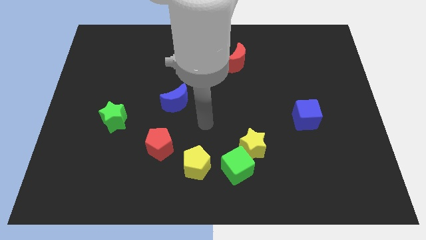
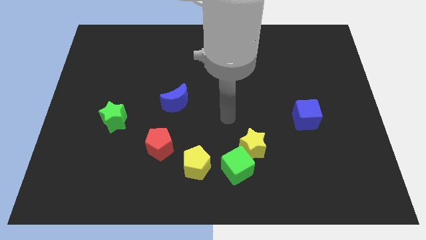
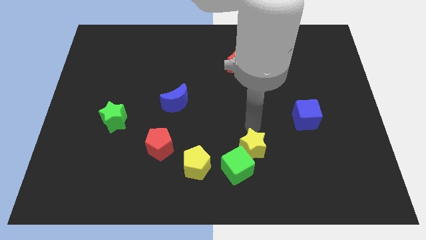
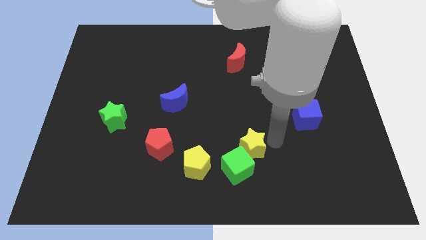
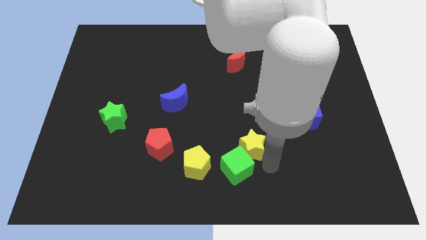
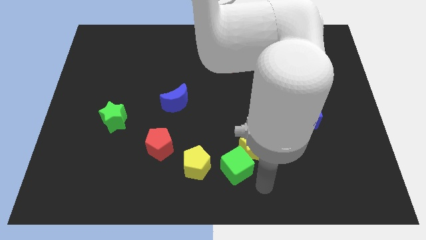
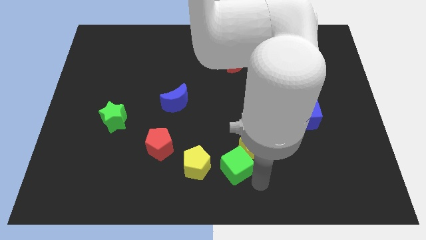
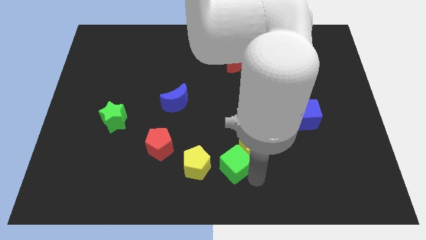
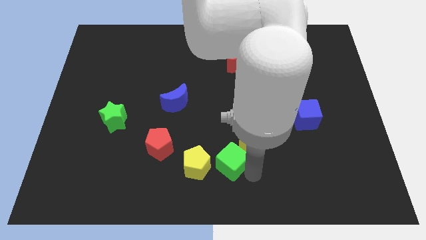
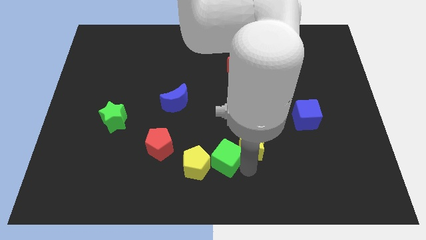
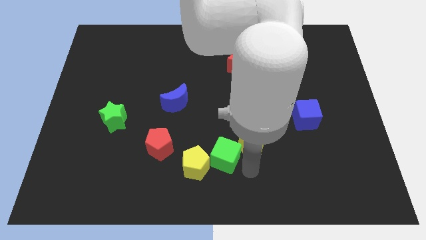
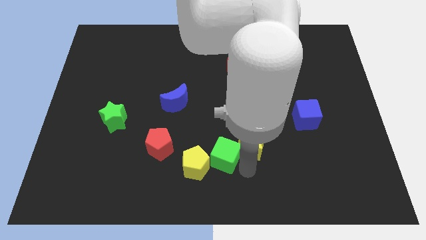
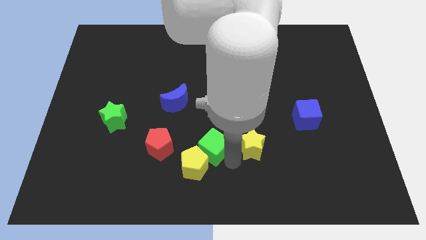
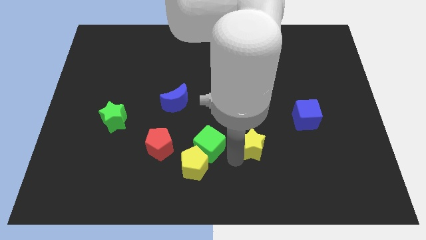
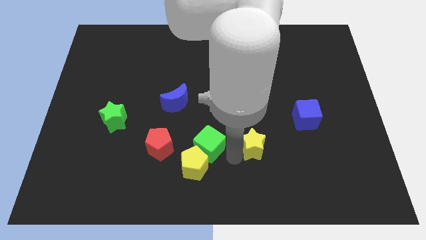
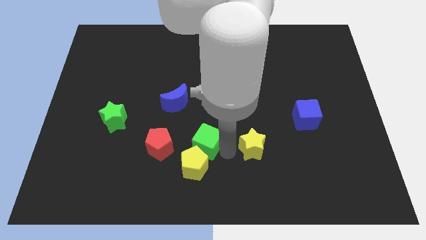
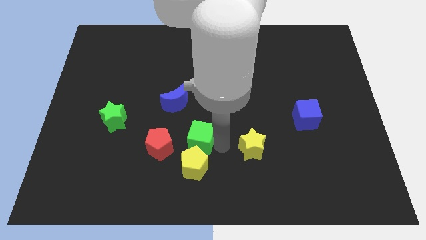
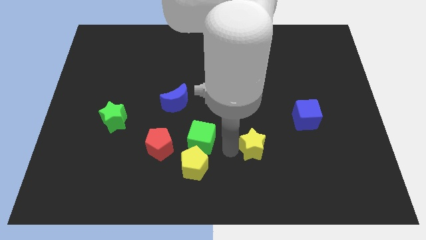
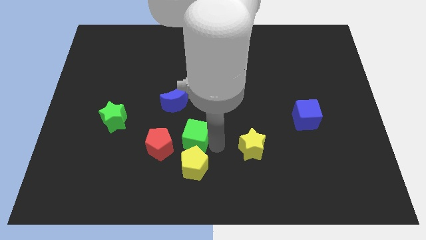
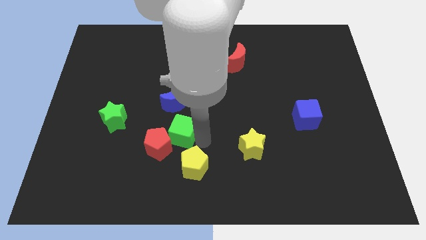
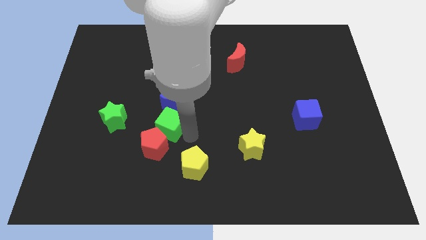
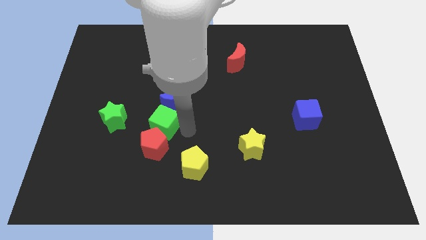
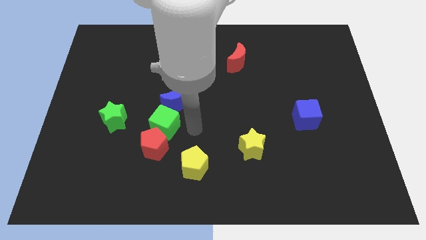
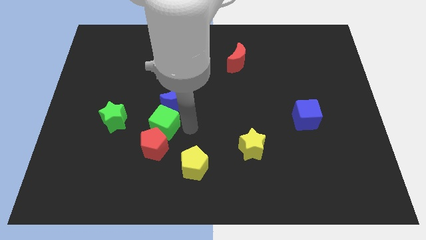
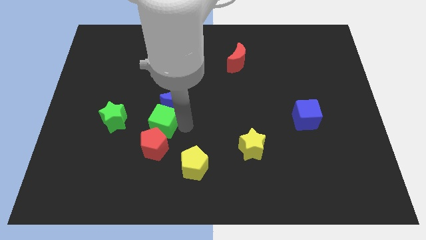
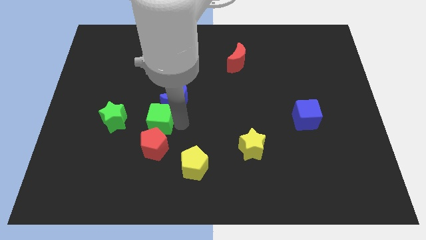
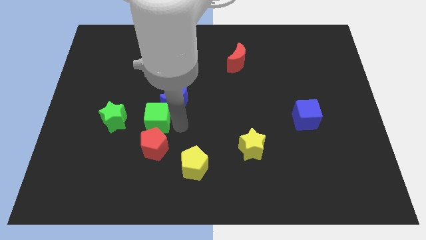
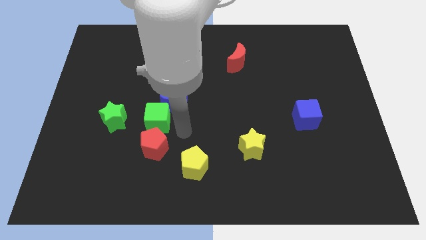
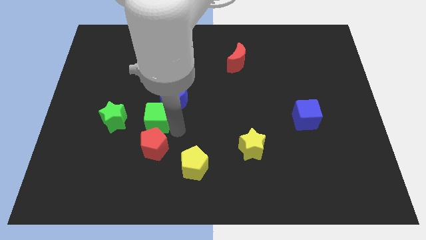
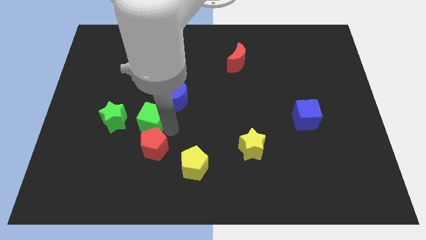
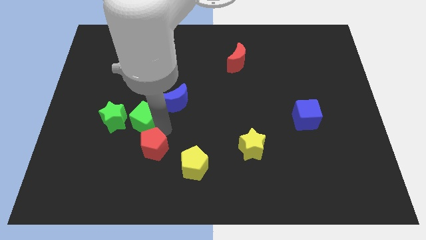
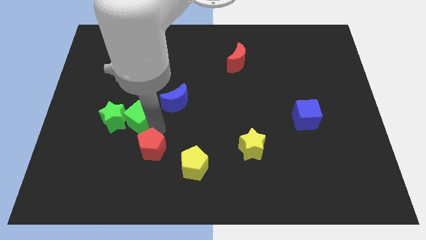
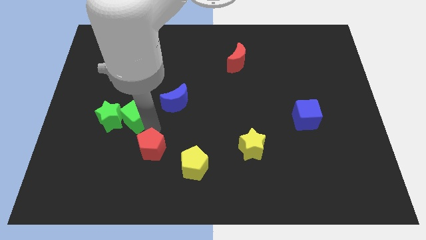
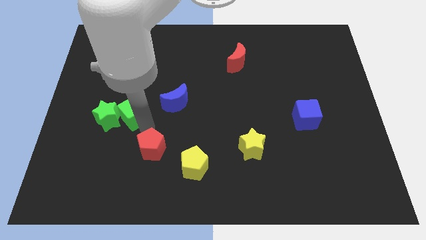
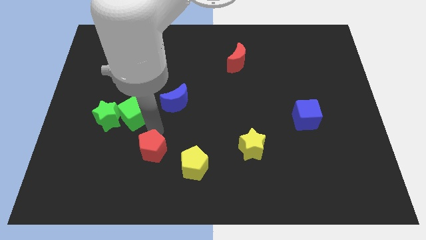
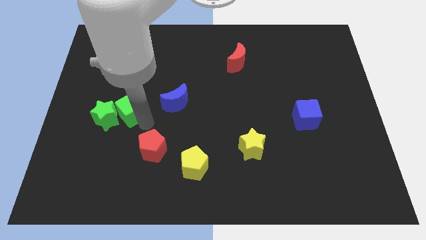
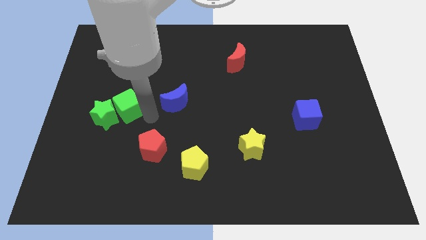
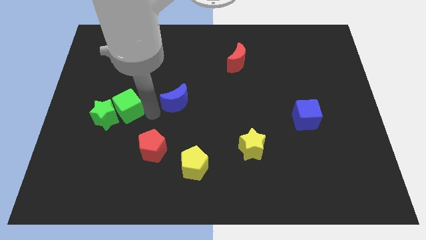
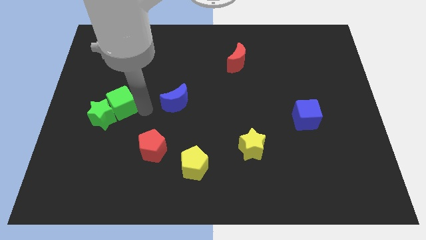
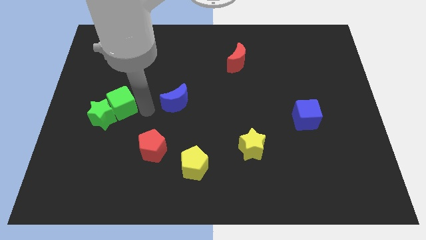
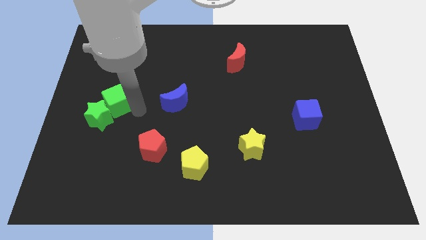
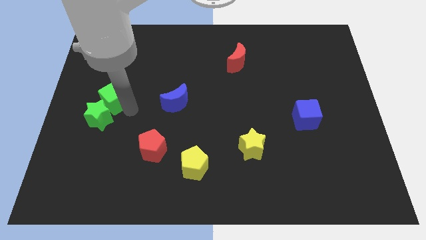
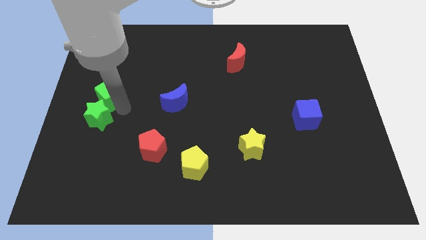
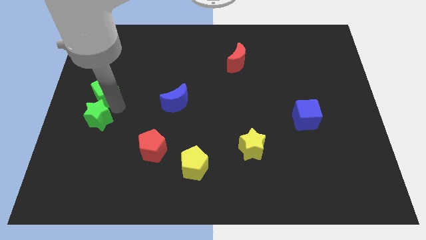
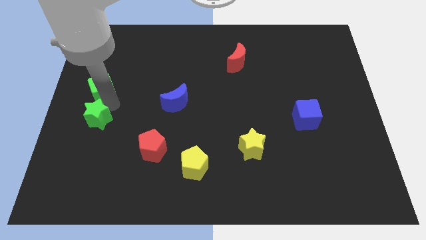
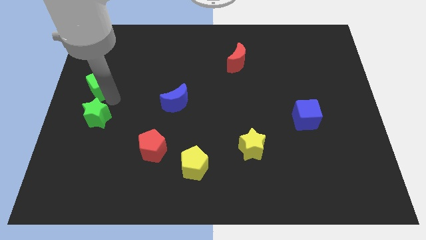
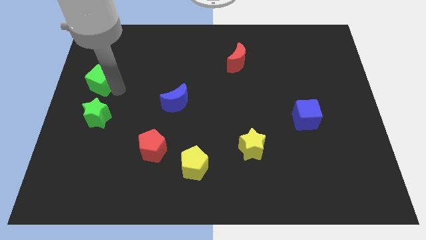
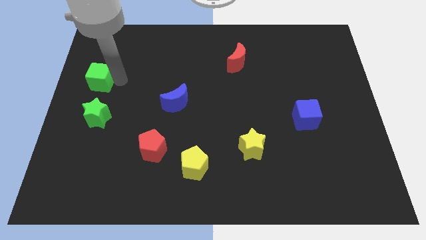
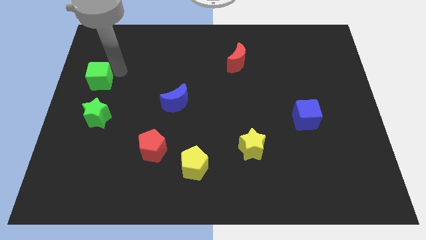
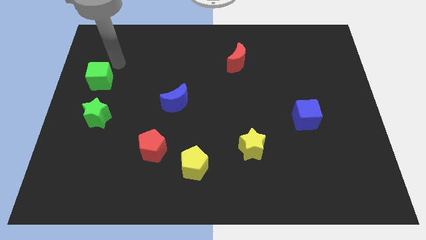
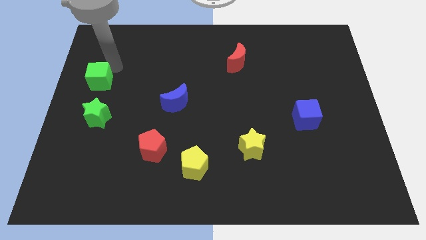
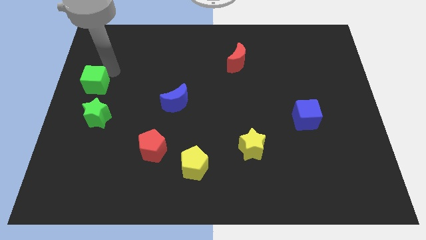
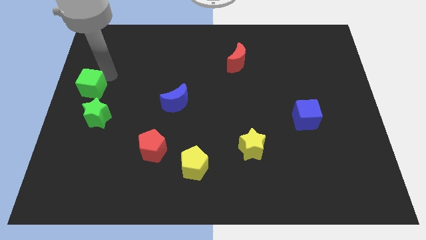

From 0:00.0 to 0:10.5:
move the green cube to the top left side of the green star
